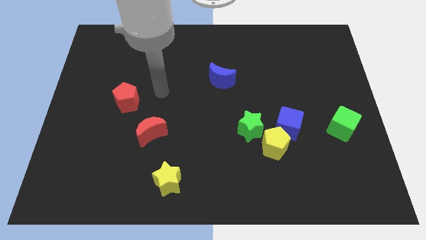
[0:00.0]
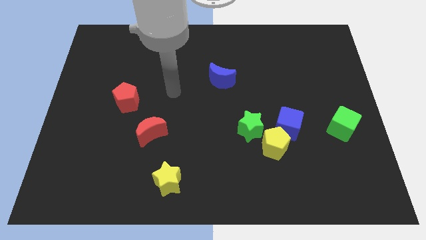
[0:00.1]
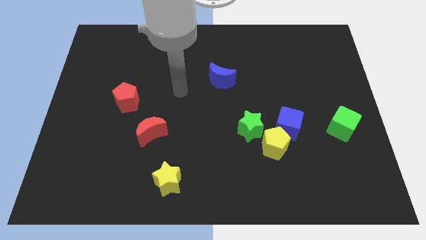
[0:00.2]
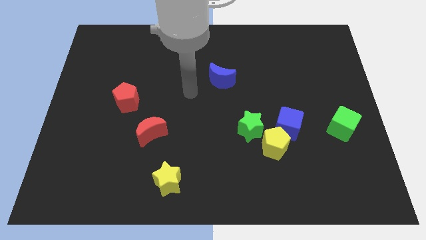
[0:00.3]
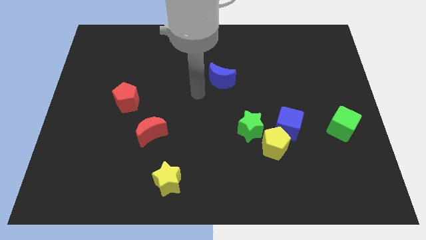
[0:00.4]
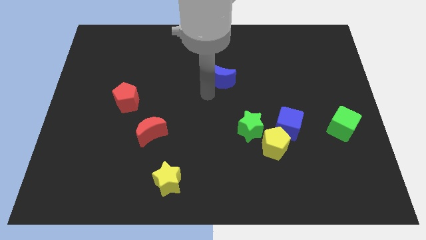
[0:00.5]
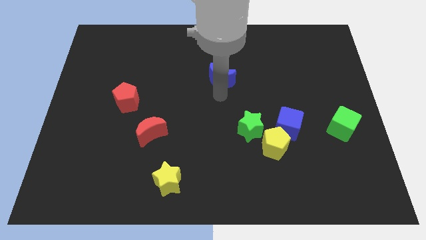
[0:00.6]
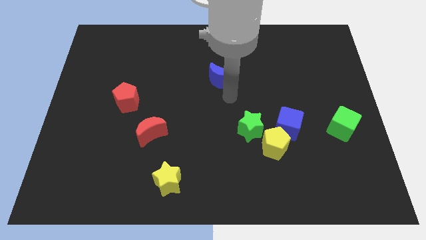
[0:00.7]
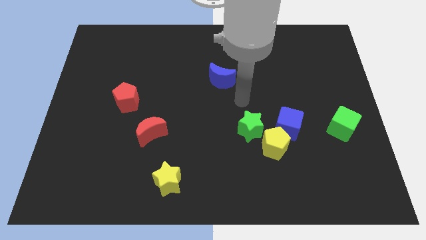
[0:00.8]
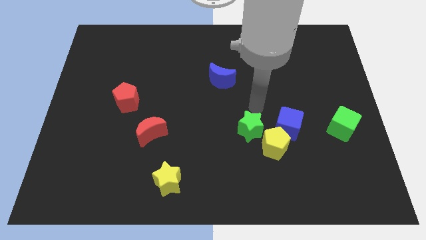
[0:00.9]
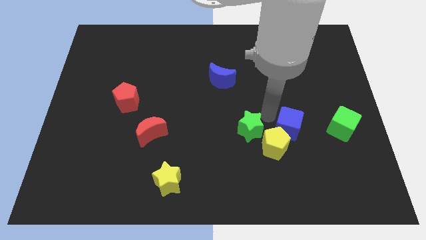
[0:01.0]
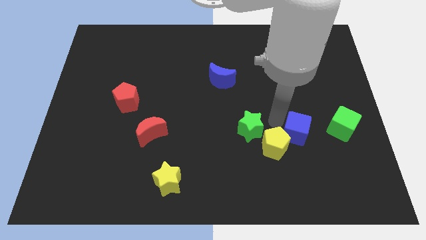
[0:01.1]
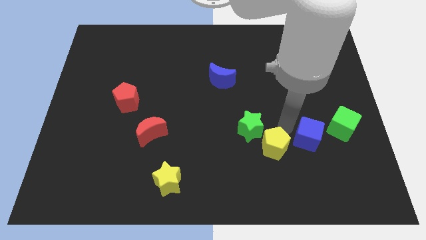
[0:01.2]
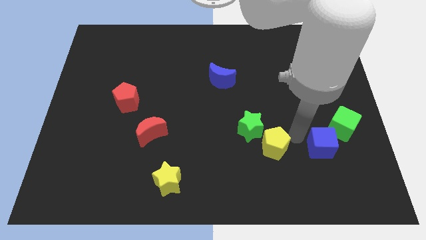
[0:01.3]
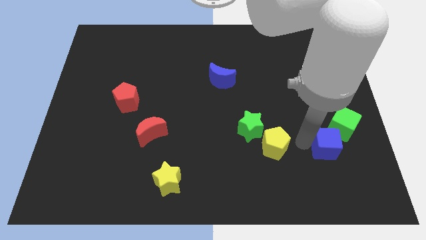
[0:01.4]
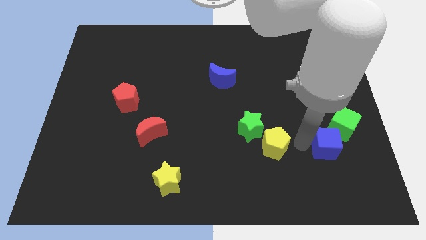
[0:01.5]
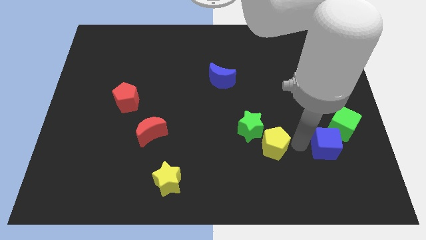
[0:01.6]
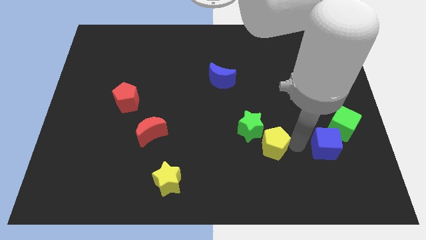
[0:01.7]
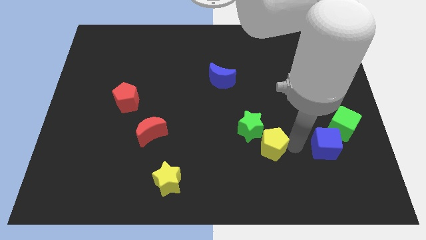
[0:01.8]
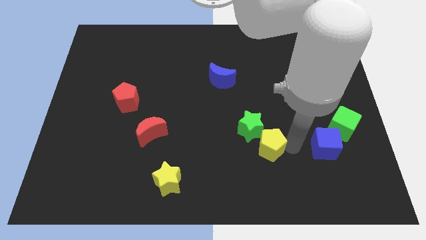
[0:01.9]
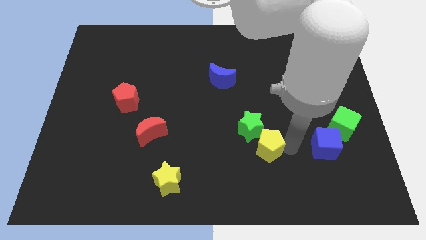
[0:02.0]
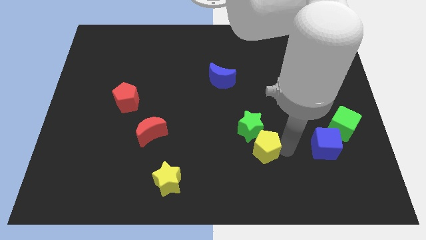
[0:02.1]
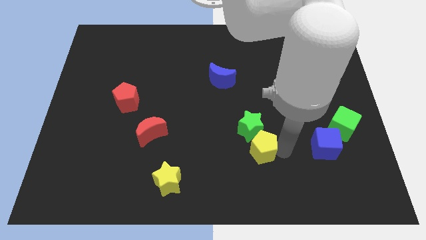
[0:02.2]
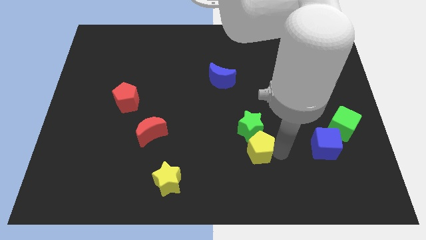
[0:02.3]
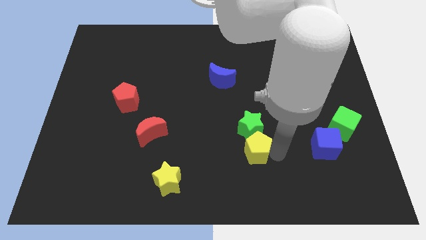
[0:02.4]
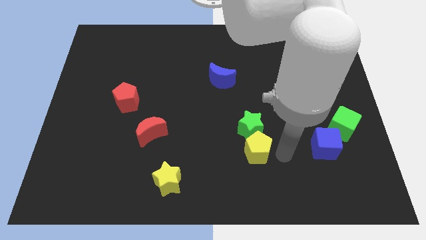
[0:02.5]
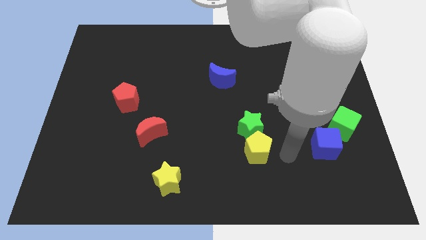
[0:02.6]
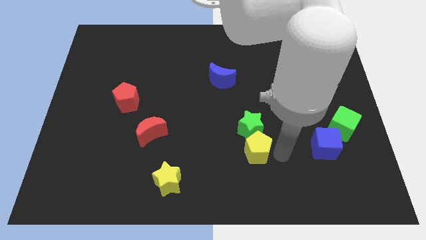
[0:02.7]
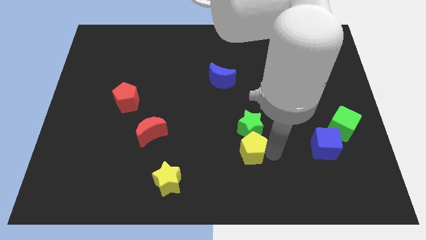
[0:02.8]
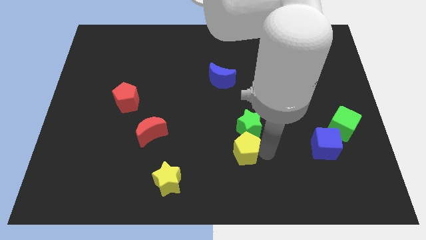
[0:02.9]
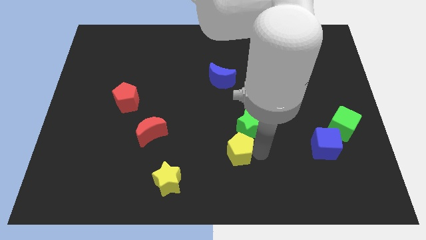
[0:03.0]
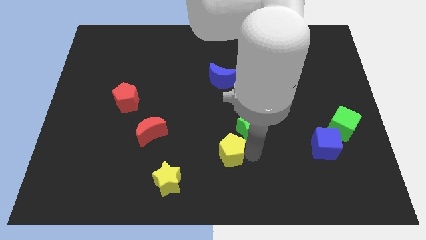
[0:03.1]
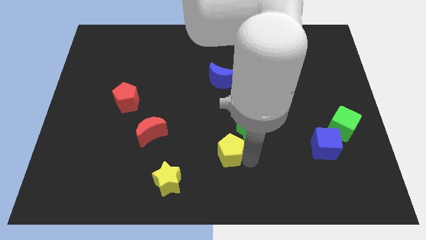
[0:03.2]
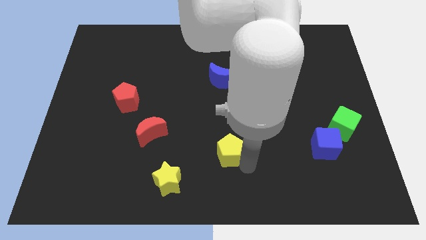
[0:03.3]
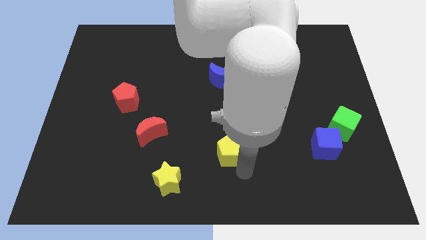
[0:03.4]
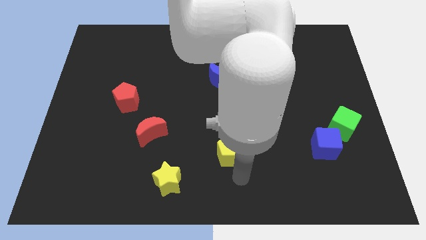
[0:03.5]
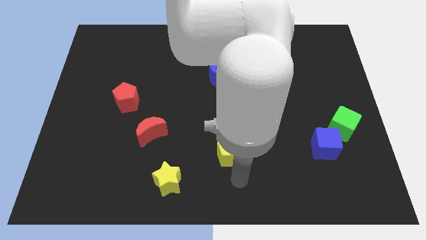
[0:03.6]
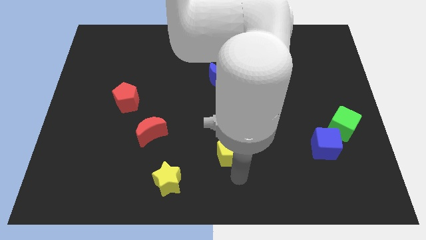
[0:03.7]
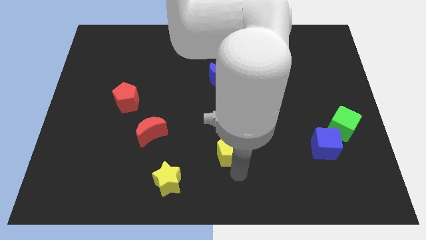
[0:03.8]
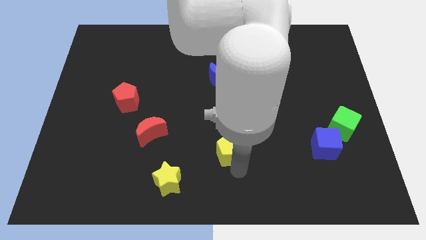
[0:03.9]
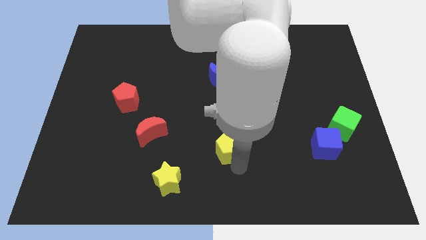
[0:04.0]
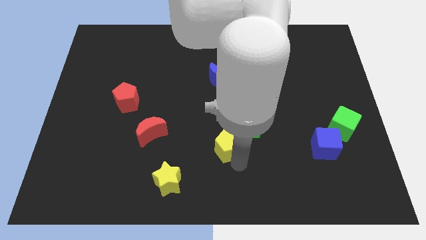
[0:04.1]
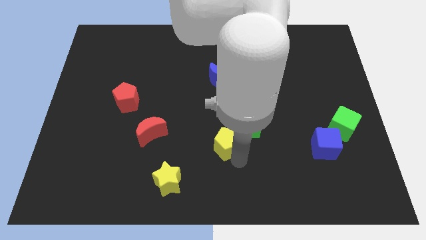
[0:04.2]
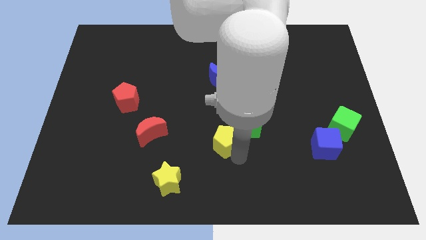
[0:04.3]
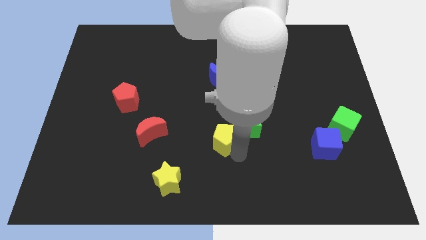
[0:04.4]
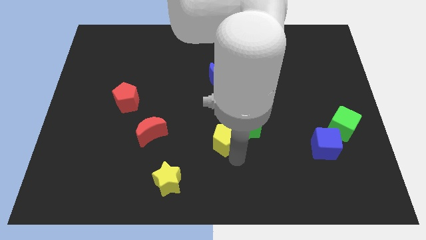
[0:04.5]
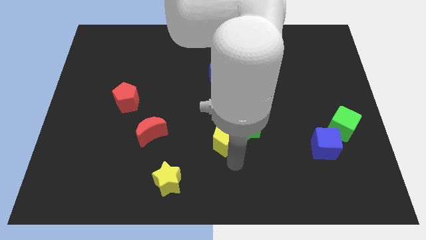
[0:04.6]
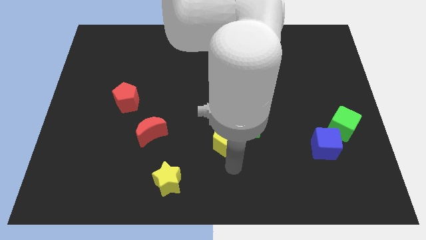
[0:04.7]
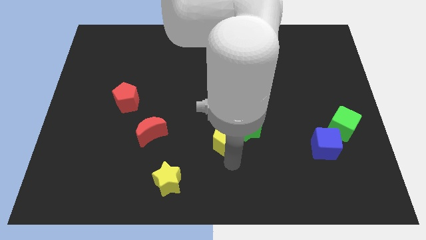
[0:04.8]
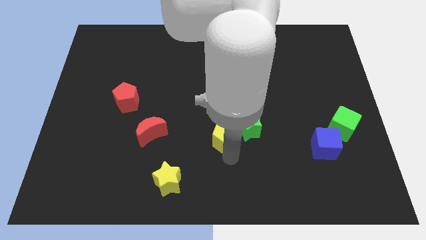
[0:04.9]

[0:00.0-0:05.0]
push the yellow pentagon somewhat upwards and then left

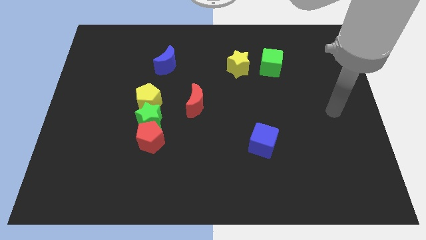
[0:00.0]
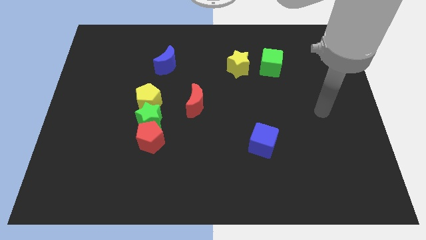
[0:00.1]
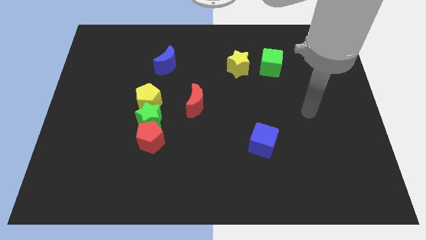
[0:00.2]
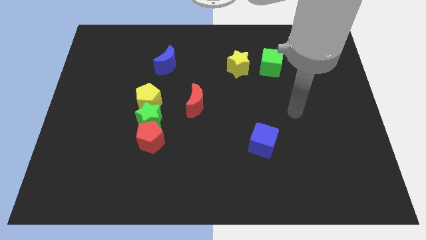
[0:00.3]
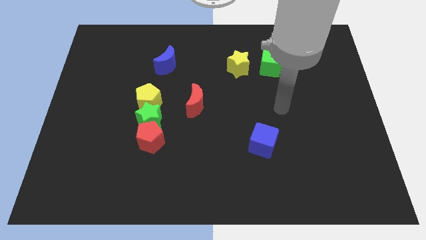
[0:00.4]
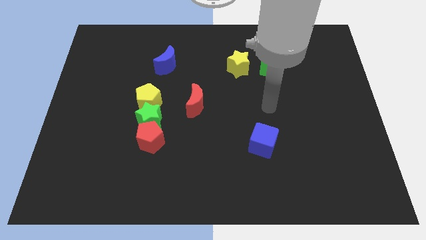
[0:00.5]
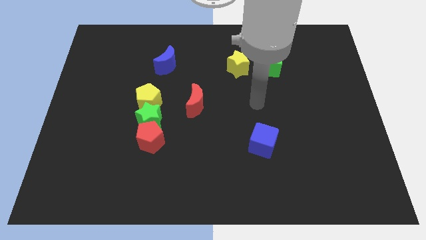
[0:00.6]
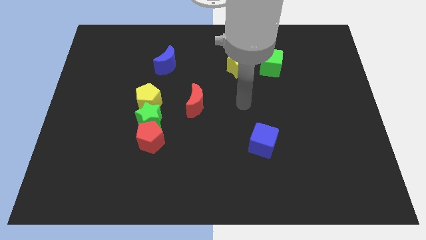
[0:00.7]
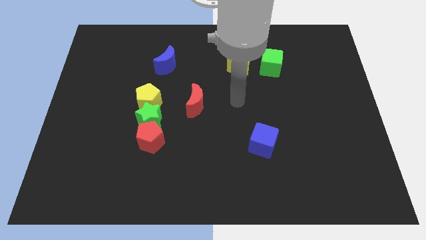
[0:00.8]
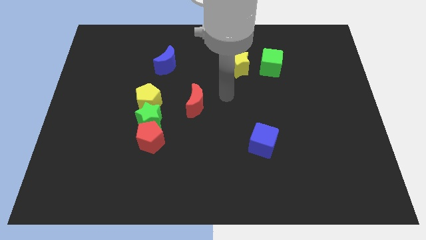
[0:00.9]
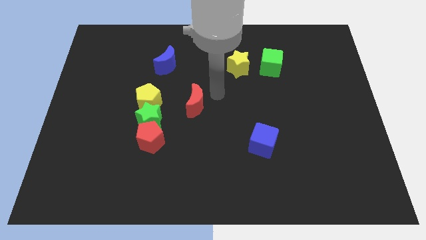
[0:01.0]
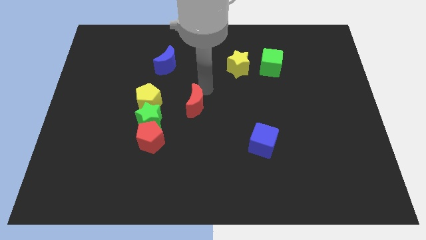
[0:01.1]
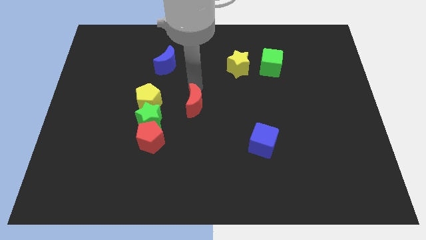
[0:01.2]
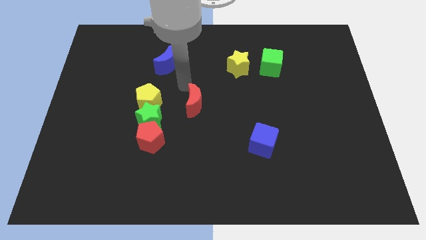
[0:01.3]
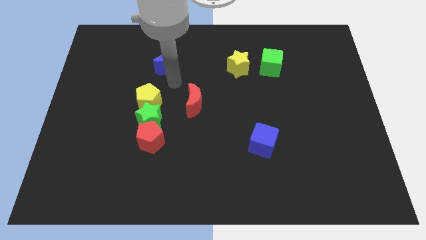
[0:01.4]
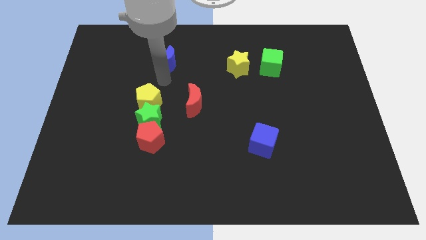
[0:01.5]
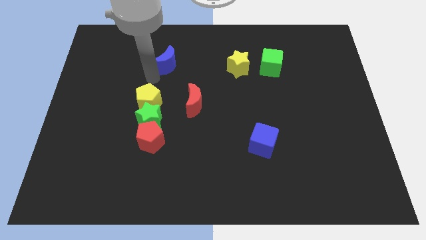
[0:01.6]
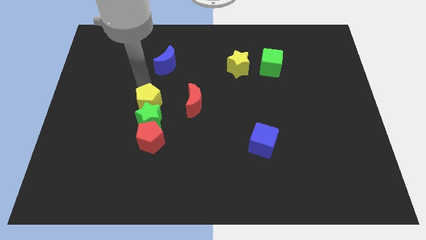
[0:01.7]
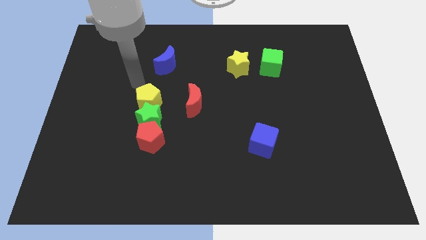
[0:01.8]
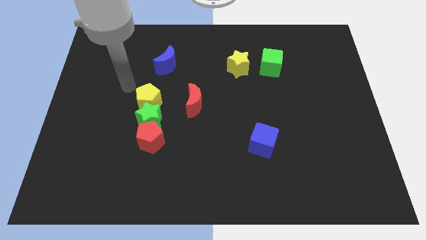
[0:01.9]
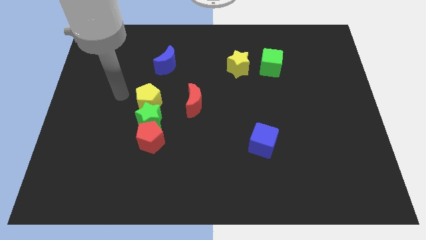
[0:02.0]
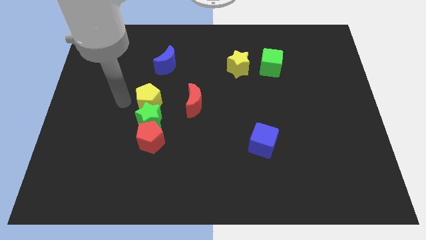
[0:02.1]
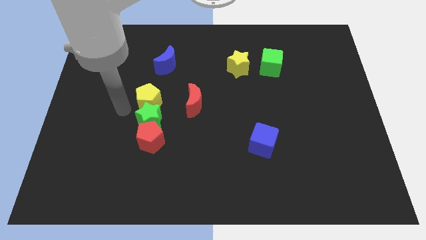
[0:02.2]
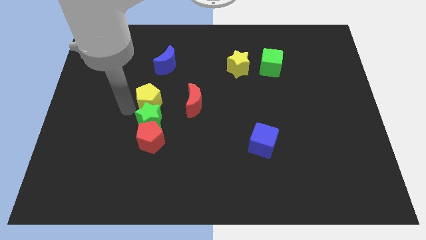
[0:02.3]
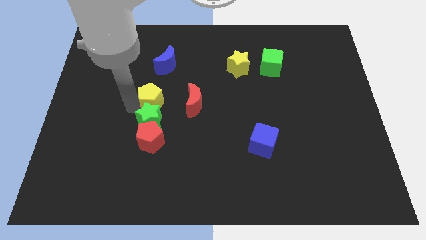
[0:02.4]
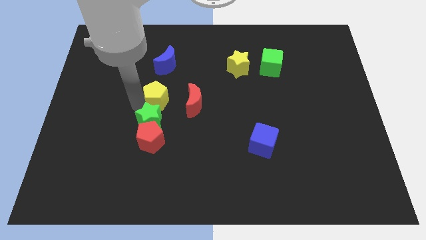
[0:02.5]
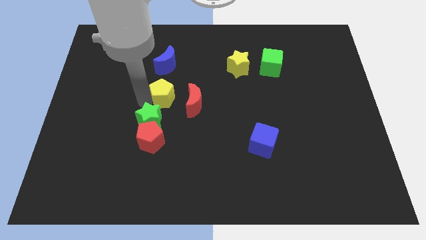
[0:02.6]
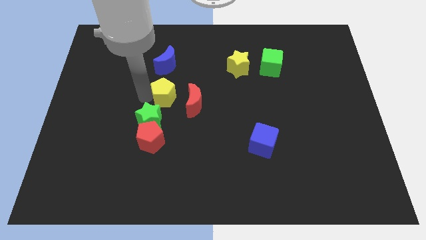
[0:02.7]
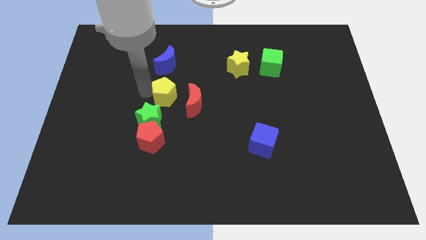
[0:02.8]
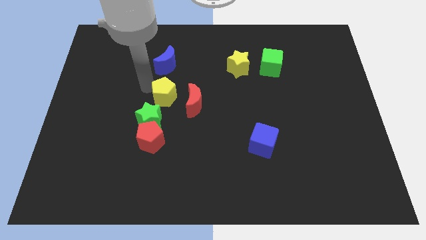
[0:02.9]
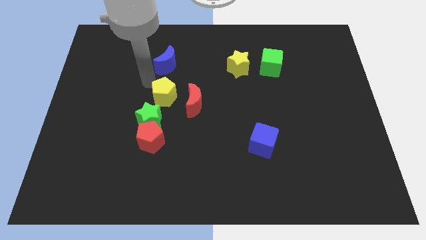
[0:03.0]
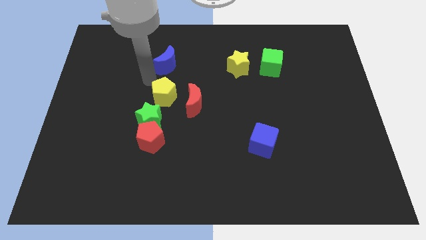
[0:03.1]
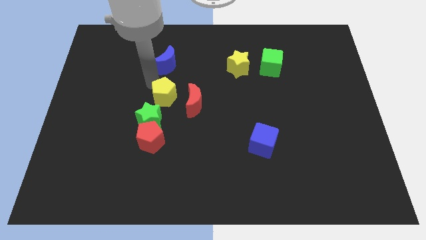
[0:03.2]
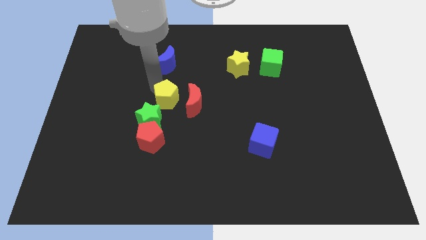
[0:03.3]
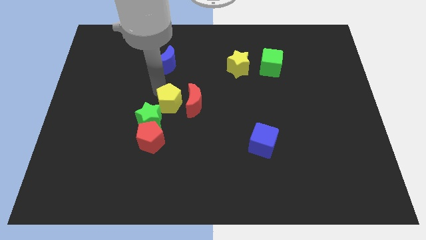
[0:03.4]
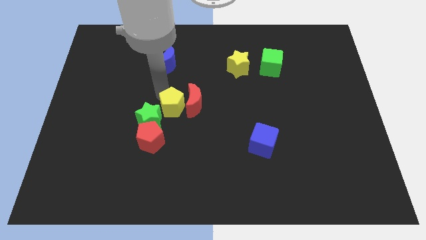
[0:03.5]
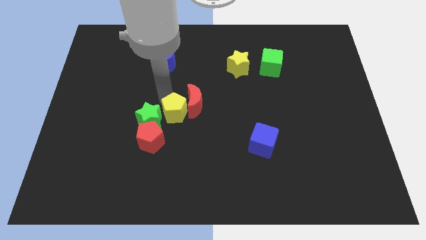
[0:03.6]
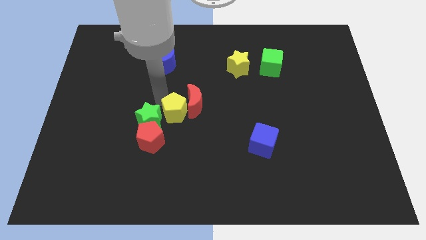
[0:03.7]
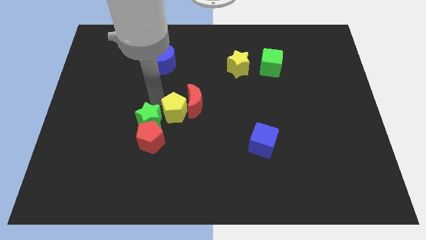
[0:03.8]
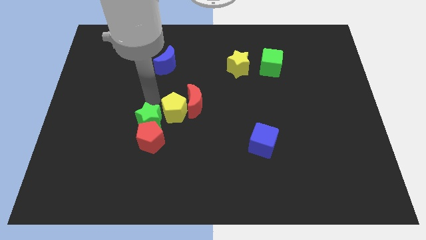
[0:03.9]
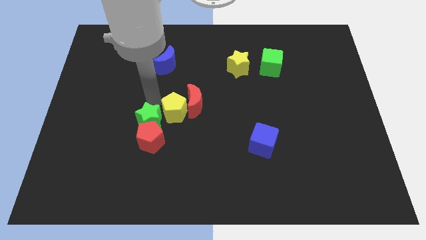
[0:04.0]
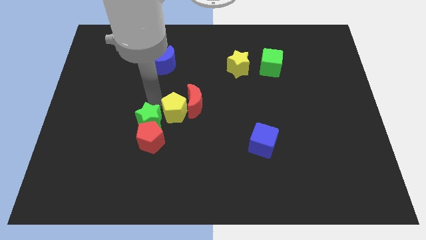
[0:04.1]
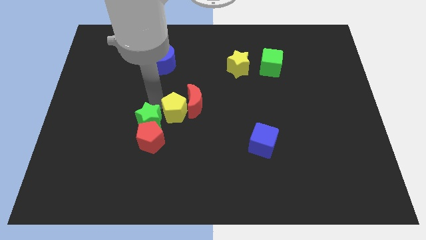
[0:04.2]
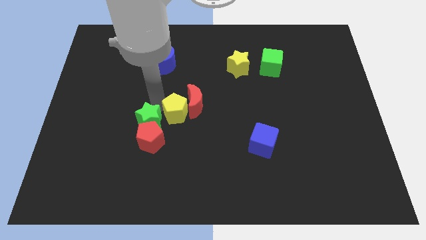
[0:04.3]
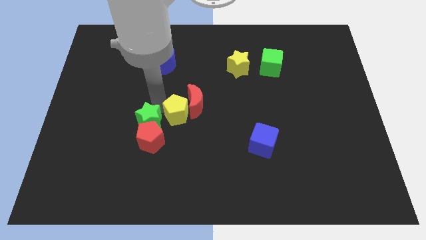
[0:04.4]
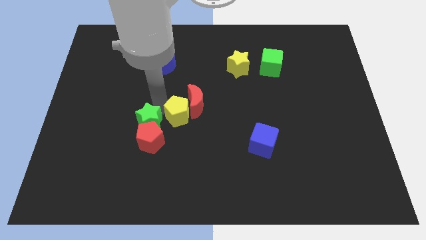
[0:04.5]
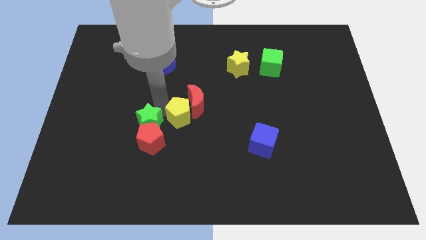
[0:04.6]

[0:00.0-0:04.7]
slightly move the yellow pentagon right
